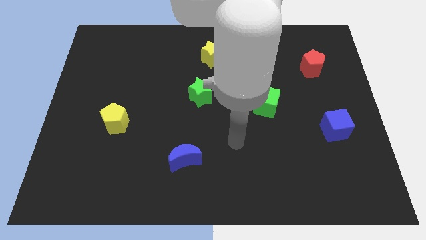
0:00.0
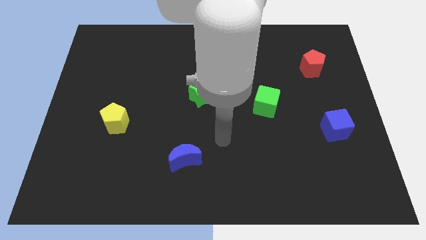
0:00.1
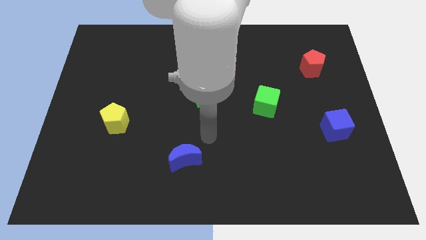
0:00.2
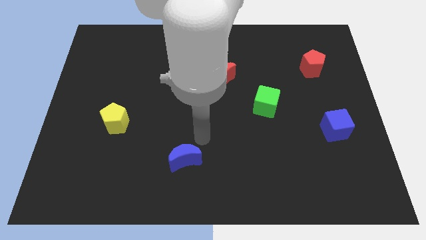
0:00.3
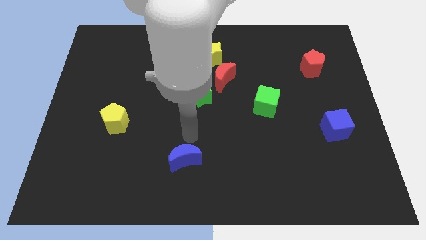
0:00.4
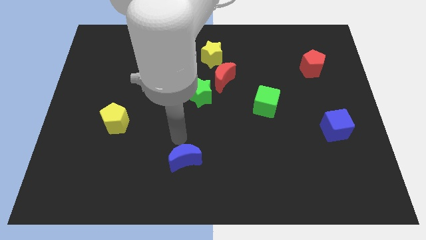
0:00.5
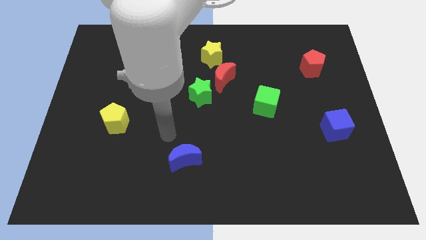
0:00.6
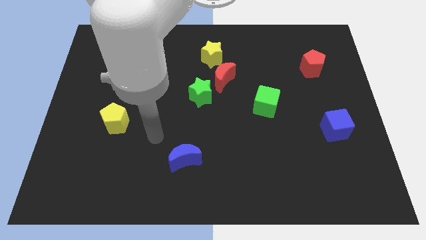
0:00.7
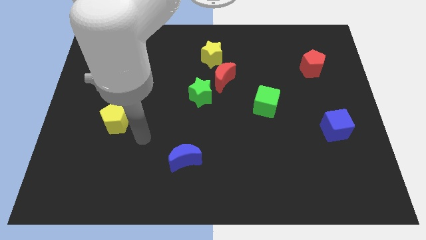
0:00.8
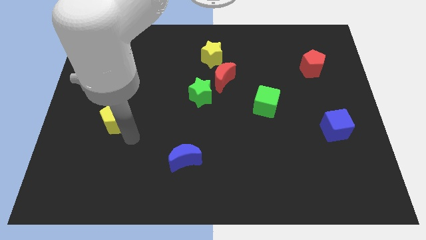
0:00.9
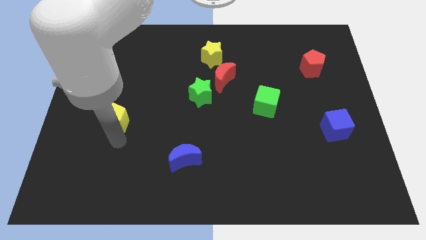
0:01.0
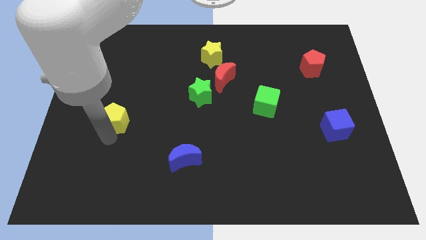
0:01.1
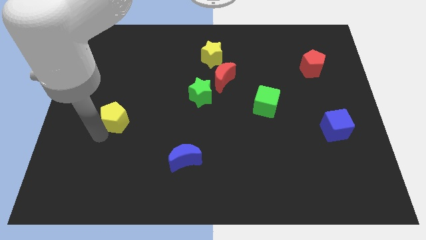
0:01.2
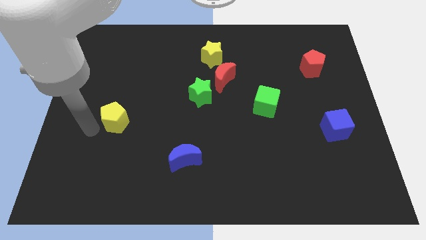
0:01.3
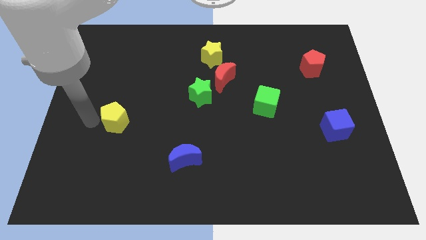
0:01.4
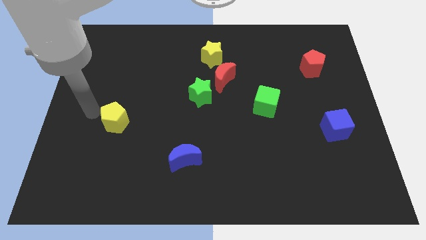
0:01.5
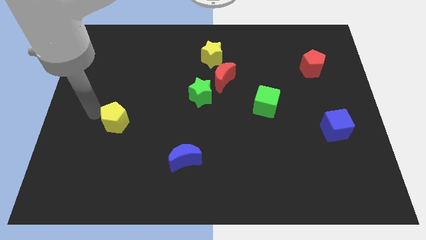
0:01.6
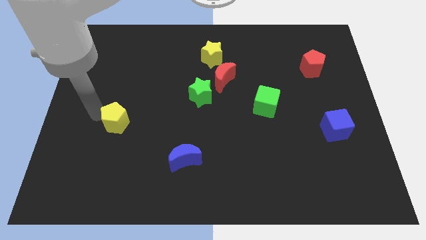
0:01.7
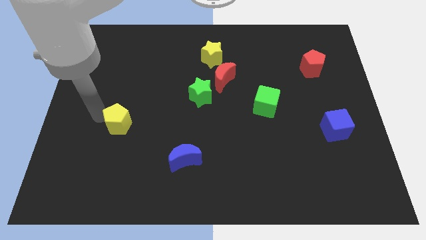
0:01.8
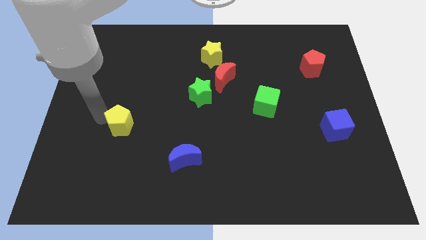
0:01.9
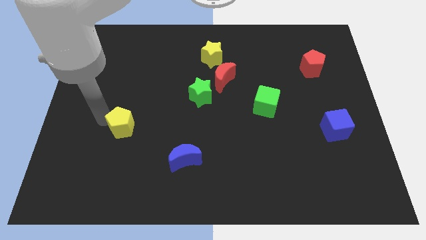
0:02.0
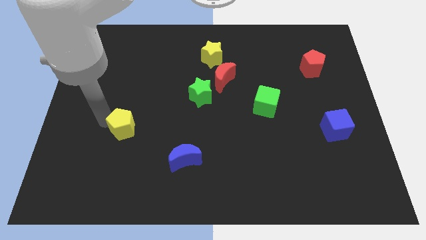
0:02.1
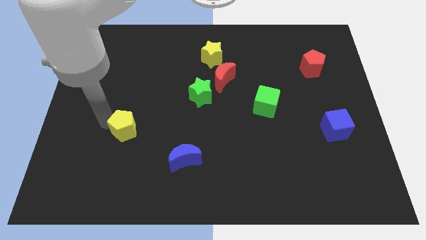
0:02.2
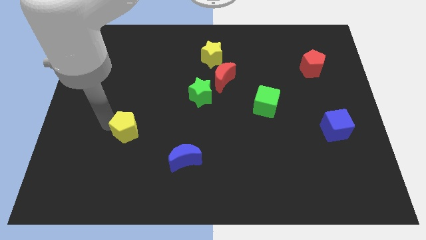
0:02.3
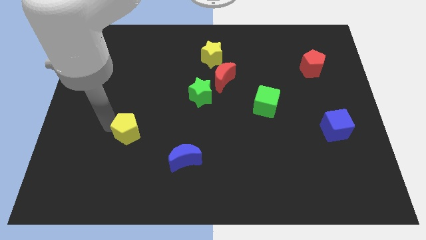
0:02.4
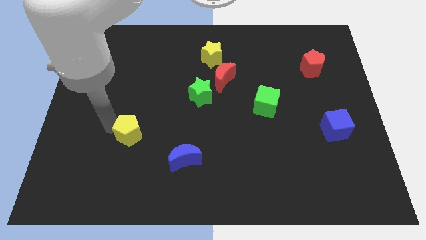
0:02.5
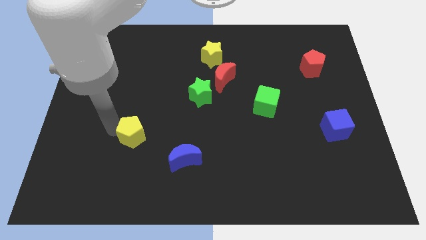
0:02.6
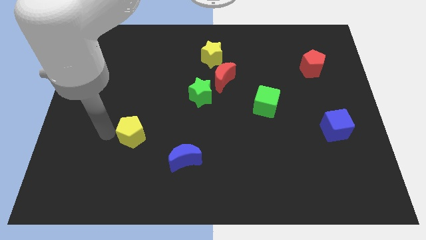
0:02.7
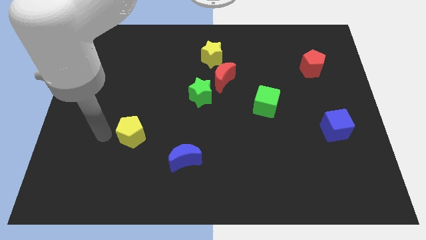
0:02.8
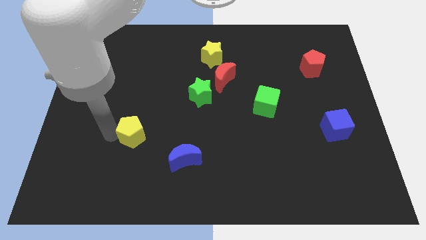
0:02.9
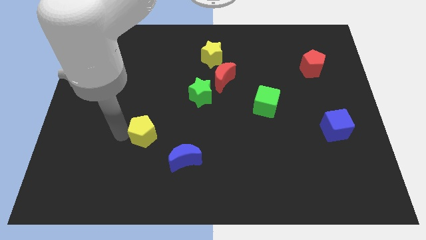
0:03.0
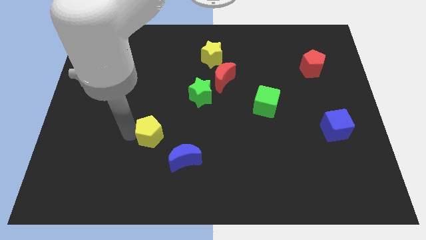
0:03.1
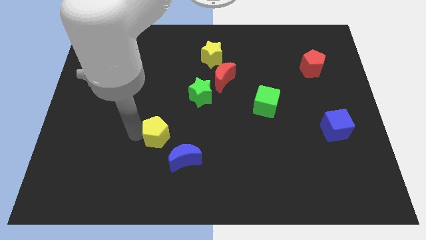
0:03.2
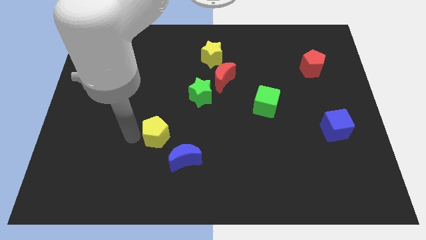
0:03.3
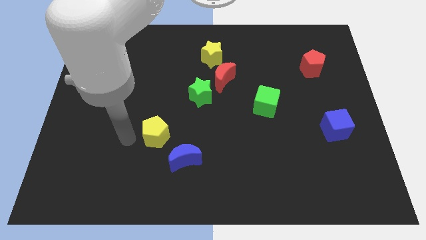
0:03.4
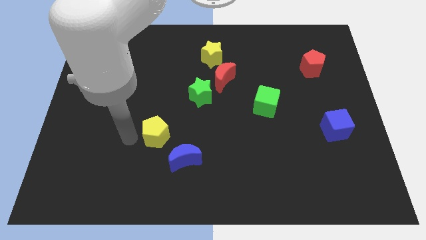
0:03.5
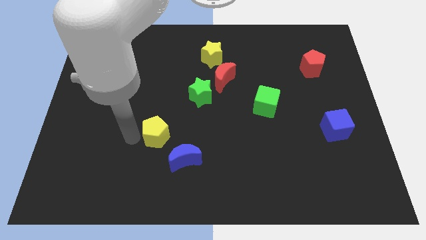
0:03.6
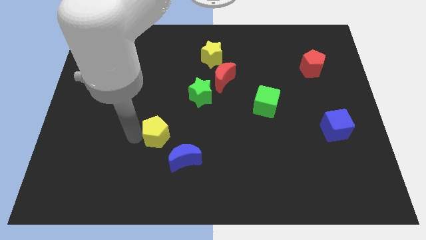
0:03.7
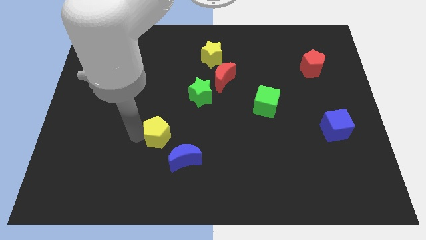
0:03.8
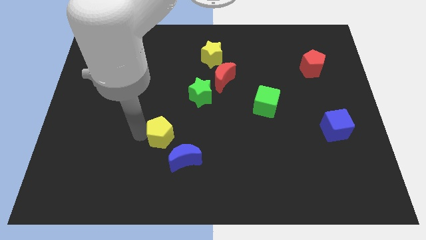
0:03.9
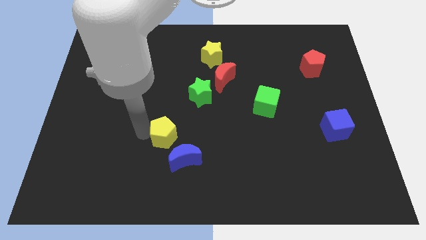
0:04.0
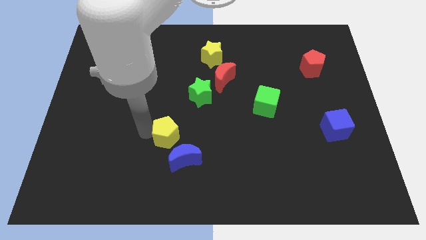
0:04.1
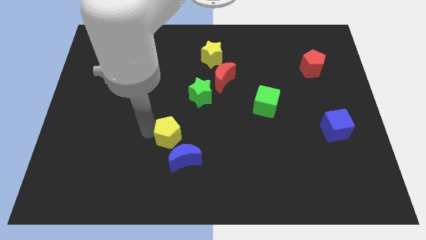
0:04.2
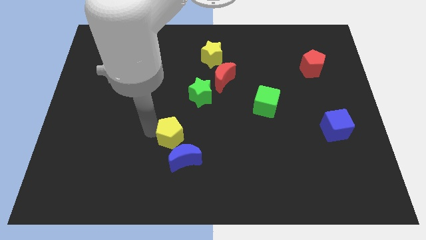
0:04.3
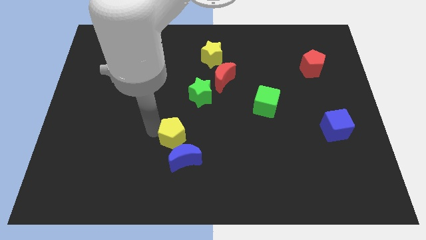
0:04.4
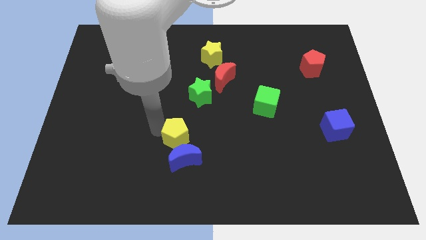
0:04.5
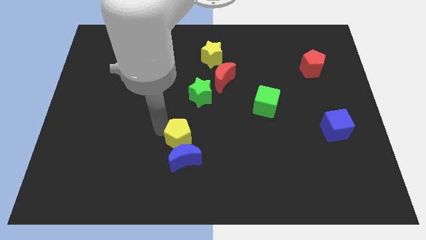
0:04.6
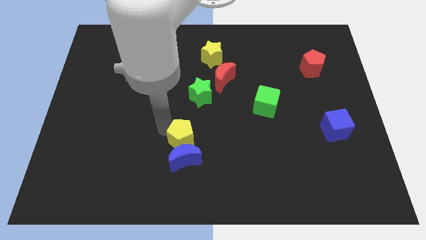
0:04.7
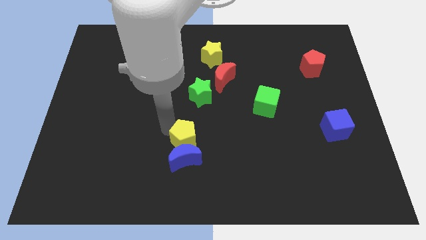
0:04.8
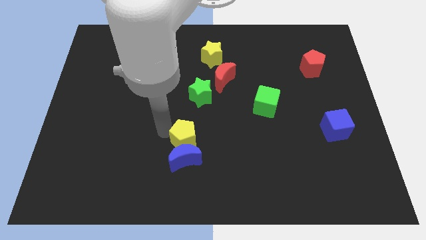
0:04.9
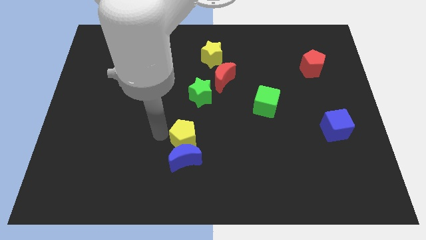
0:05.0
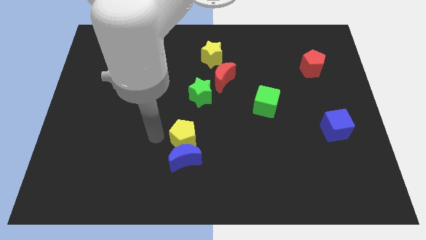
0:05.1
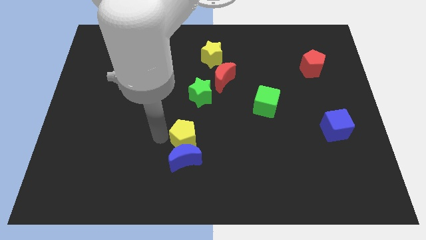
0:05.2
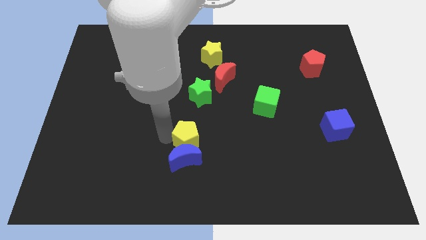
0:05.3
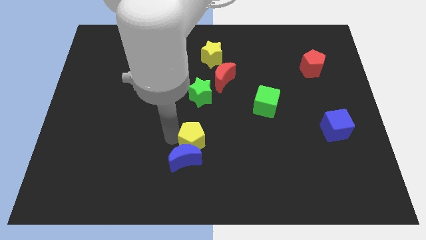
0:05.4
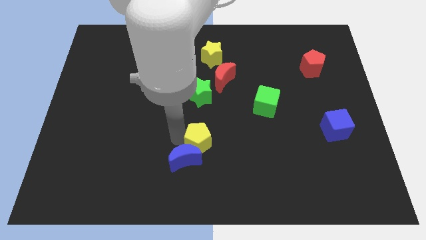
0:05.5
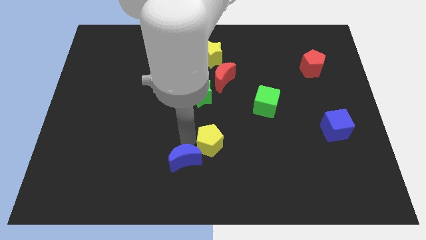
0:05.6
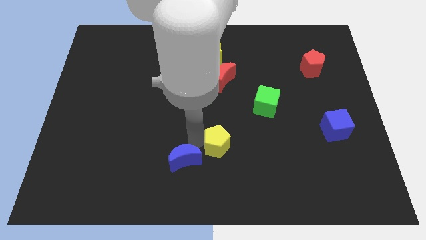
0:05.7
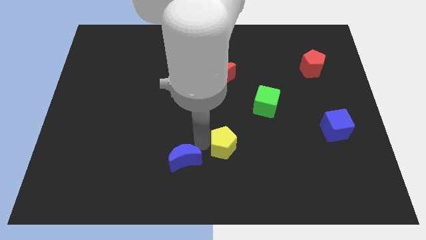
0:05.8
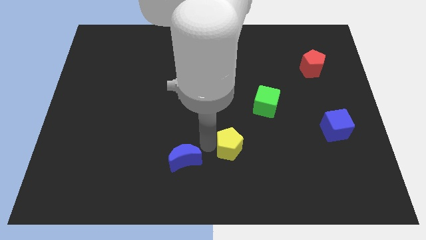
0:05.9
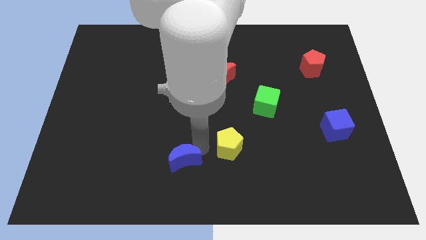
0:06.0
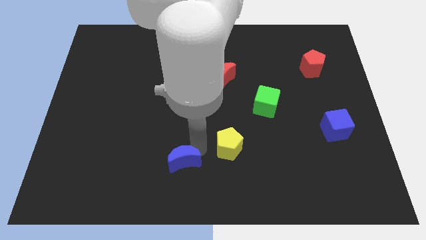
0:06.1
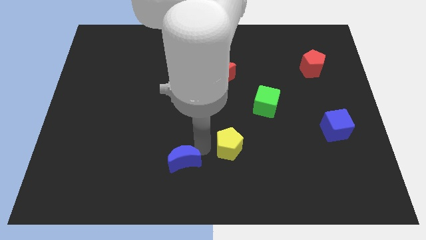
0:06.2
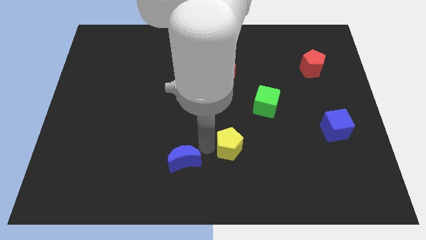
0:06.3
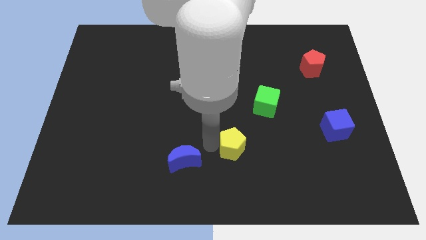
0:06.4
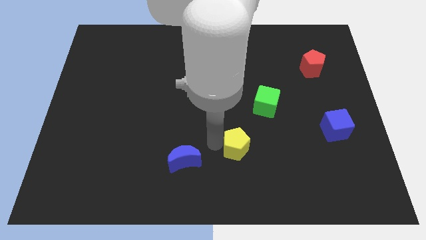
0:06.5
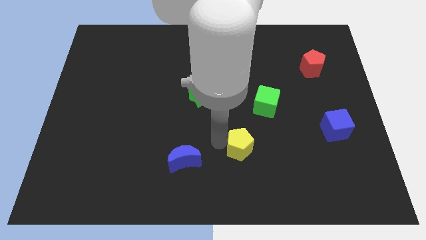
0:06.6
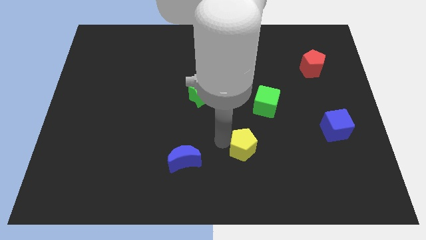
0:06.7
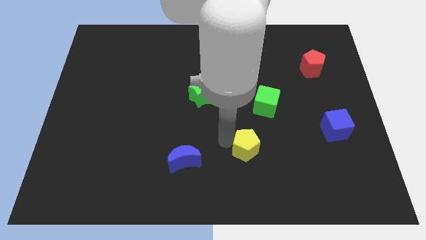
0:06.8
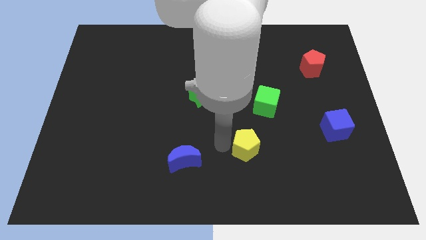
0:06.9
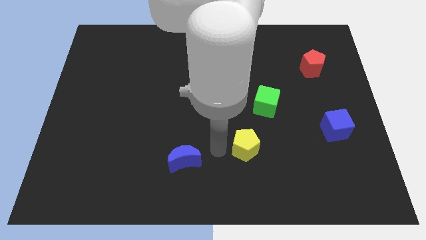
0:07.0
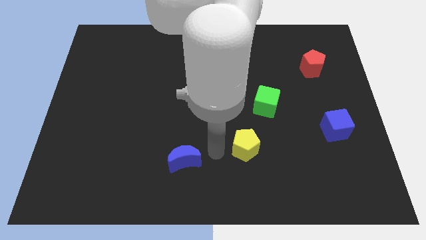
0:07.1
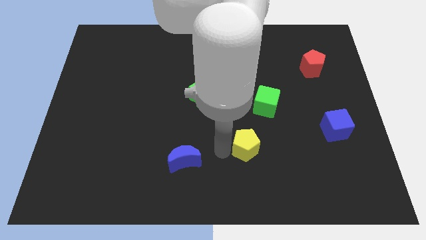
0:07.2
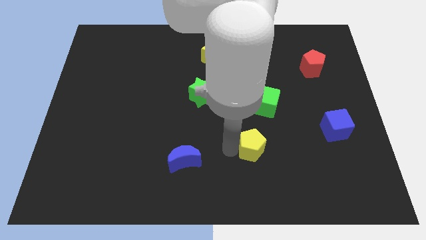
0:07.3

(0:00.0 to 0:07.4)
put the yellow pentagon to the bottom of the green cube
